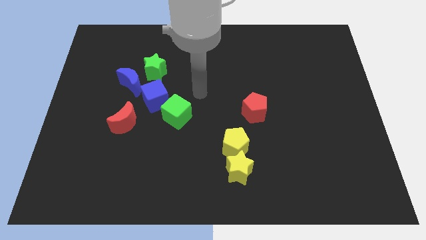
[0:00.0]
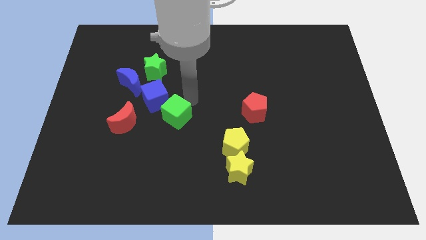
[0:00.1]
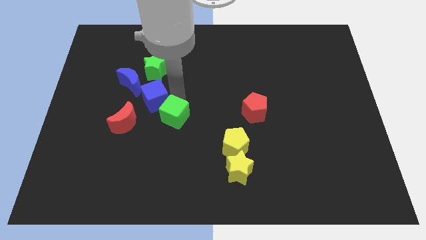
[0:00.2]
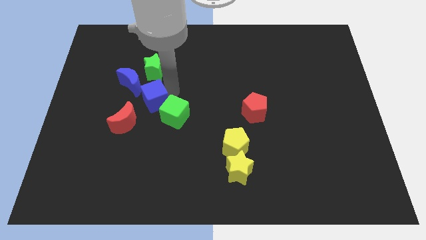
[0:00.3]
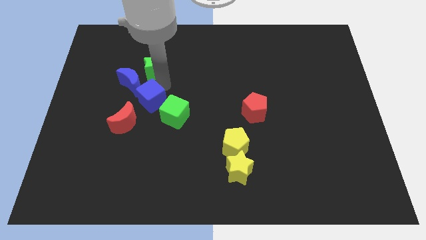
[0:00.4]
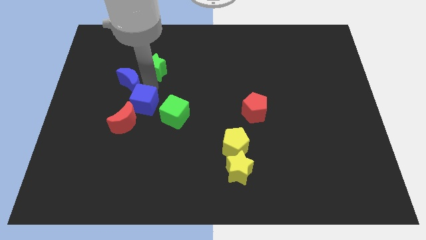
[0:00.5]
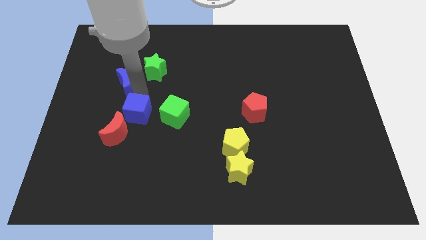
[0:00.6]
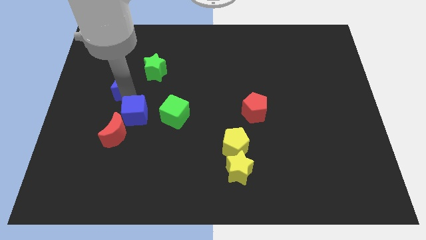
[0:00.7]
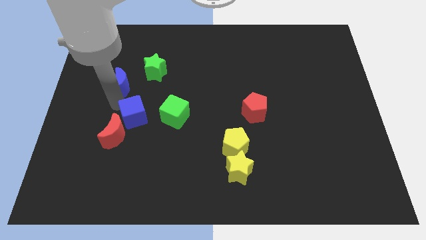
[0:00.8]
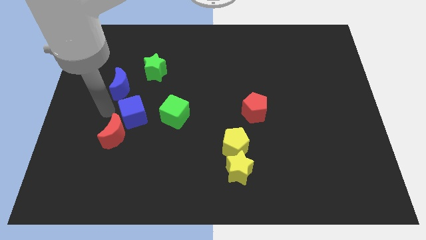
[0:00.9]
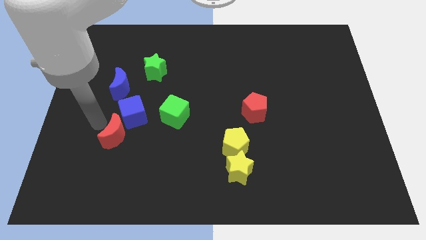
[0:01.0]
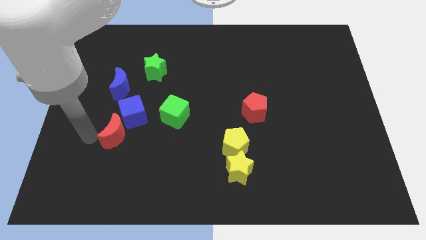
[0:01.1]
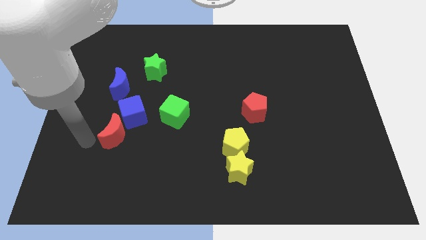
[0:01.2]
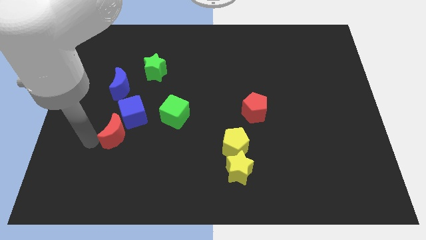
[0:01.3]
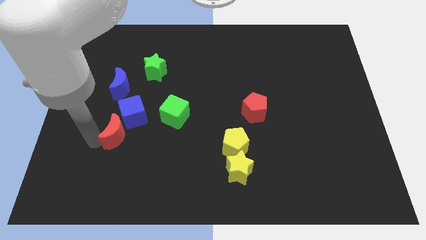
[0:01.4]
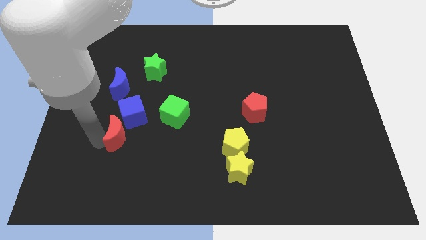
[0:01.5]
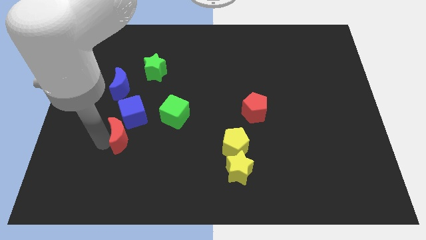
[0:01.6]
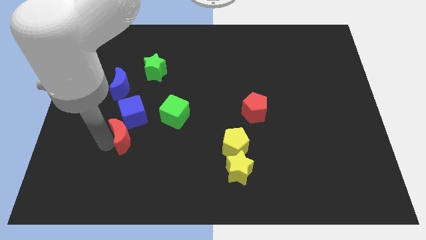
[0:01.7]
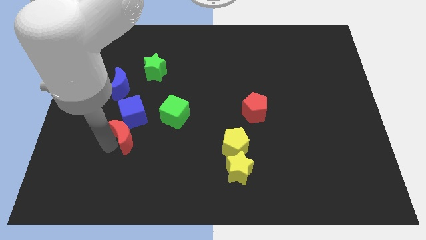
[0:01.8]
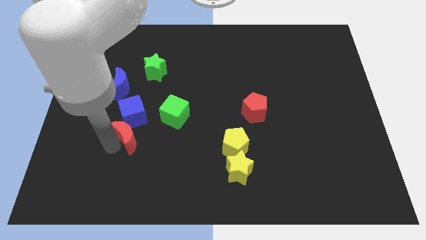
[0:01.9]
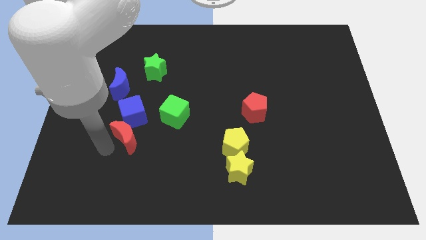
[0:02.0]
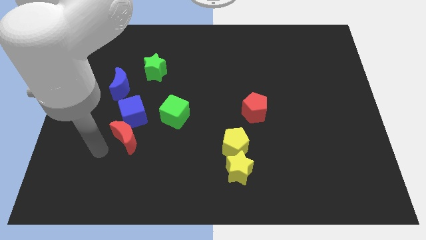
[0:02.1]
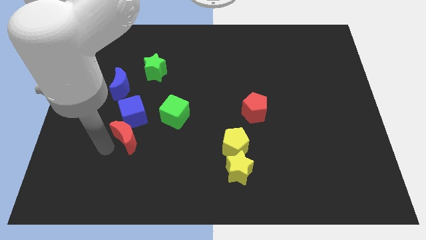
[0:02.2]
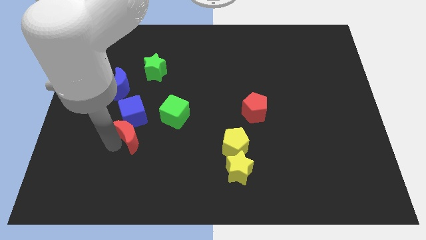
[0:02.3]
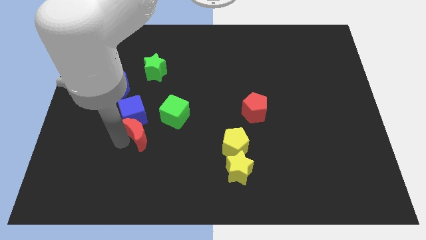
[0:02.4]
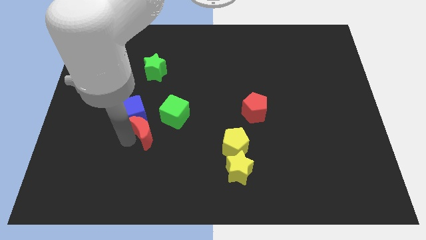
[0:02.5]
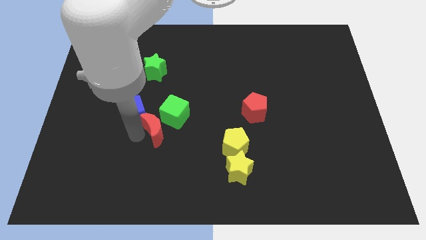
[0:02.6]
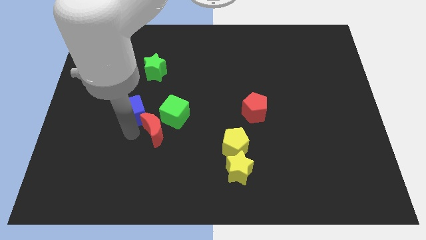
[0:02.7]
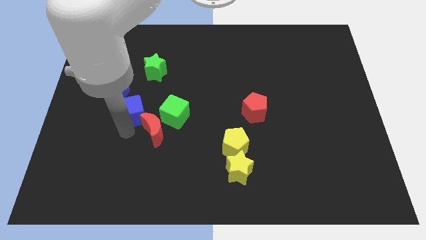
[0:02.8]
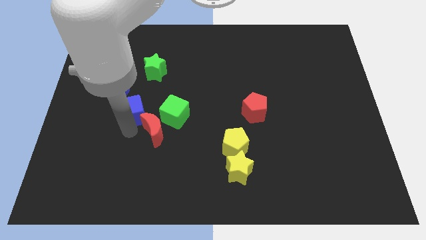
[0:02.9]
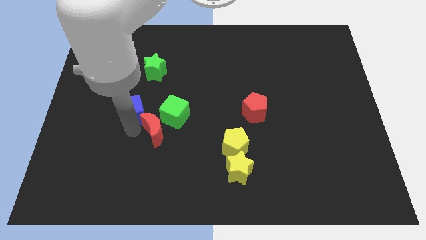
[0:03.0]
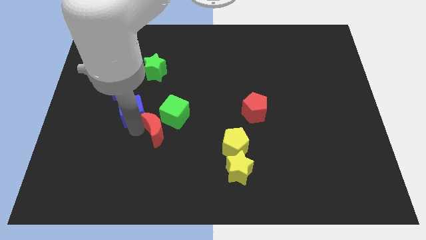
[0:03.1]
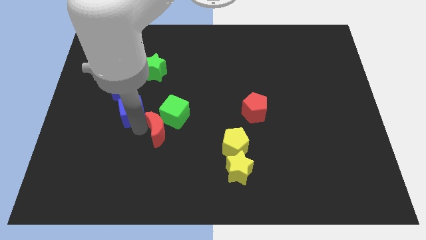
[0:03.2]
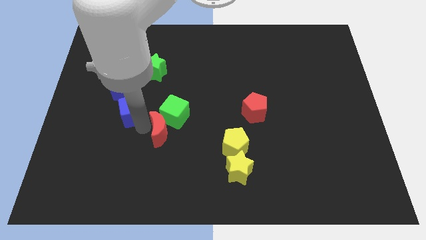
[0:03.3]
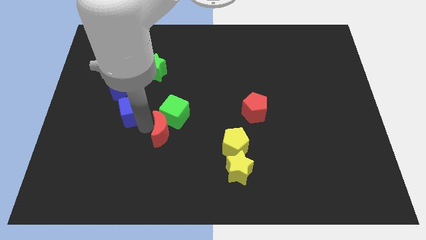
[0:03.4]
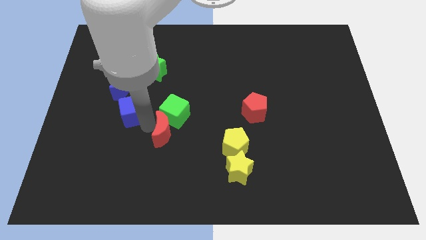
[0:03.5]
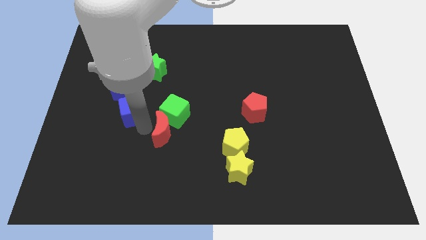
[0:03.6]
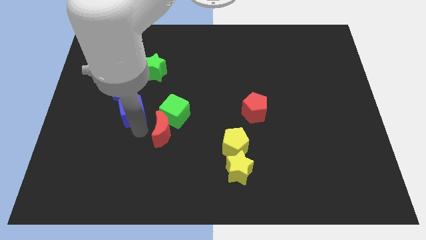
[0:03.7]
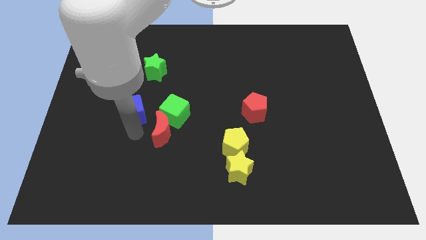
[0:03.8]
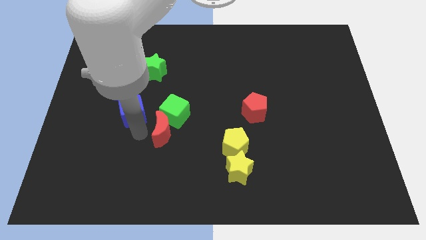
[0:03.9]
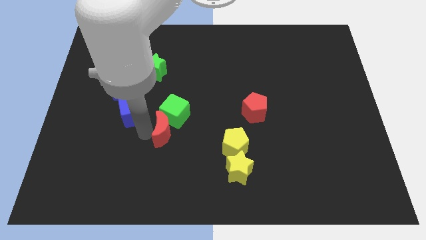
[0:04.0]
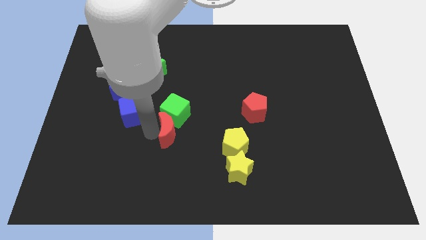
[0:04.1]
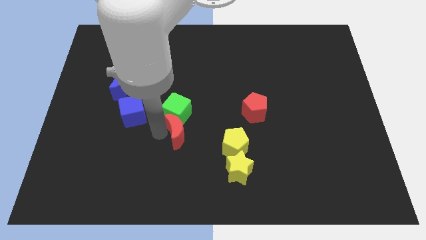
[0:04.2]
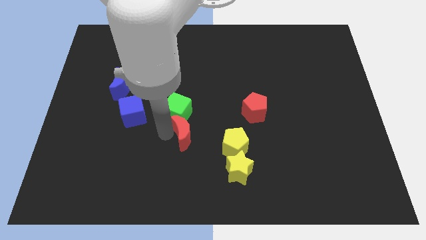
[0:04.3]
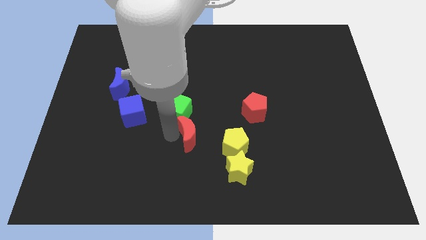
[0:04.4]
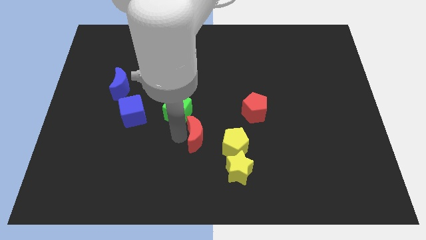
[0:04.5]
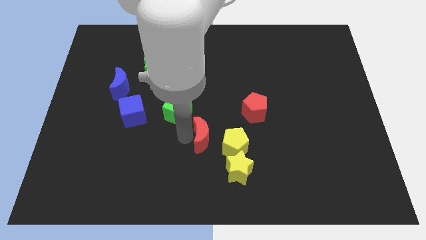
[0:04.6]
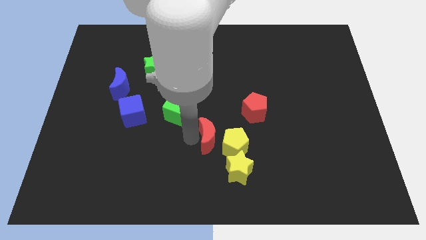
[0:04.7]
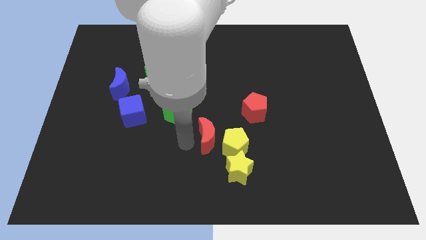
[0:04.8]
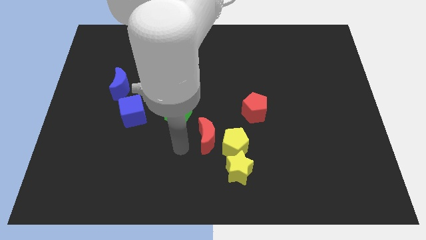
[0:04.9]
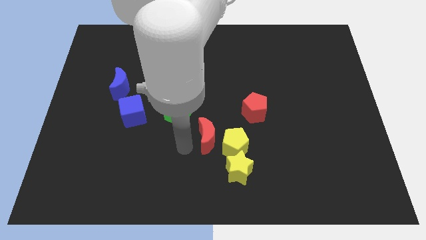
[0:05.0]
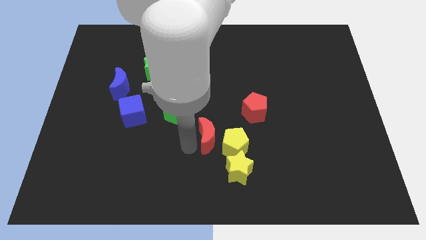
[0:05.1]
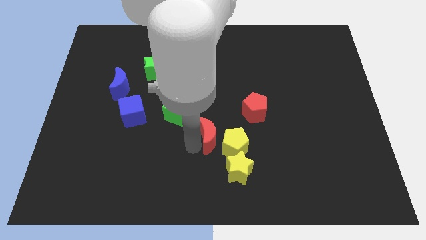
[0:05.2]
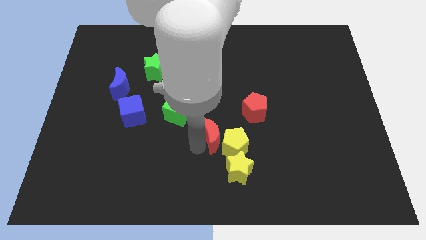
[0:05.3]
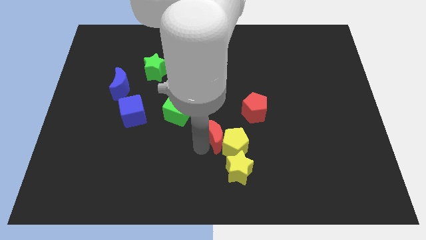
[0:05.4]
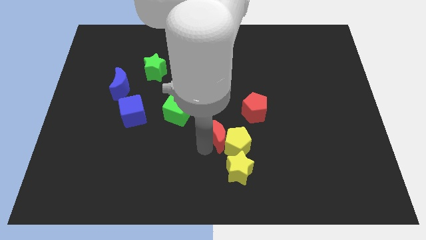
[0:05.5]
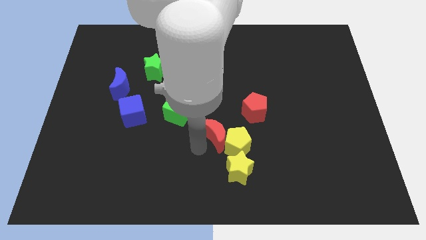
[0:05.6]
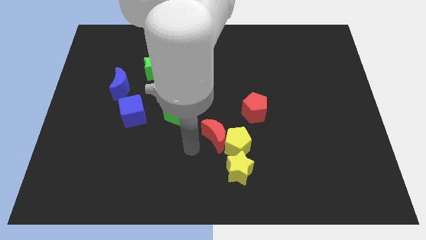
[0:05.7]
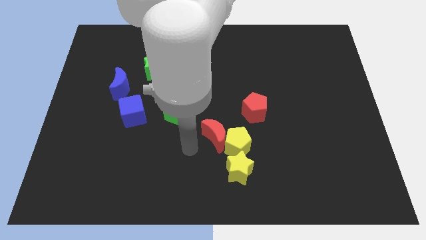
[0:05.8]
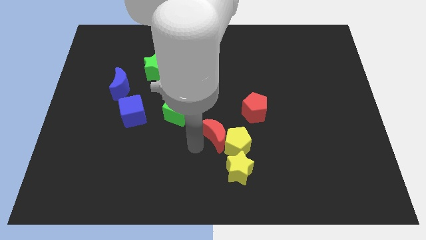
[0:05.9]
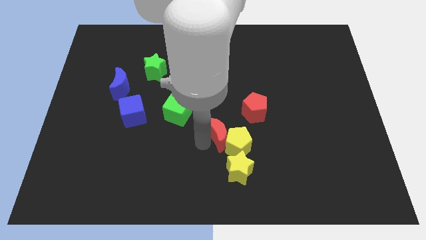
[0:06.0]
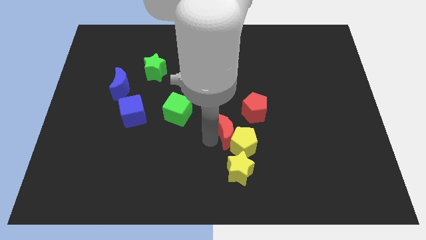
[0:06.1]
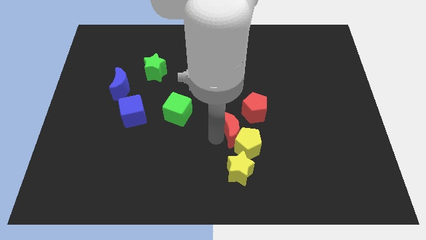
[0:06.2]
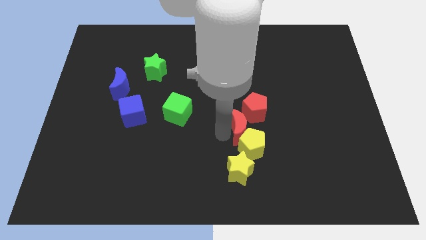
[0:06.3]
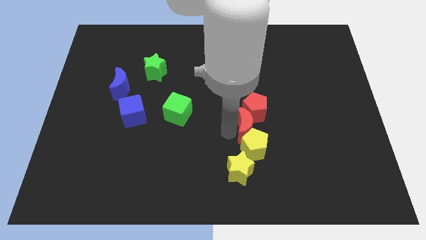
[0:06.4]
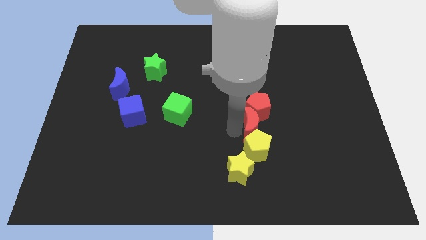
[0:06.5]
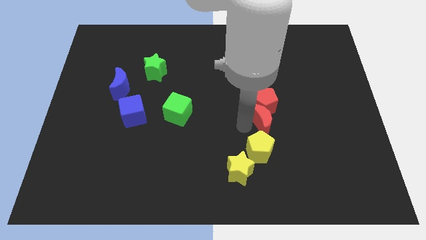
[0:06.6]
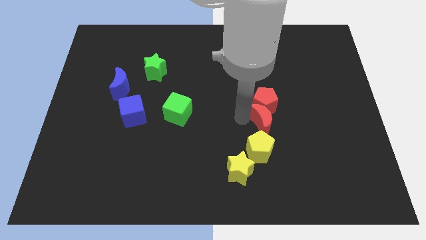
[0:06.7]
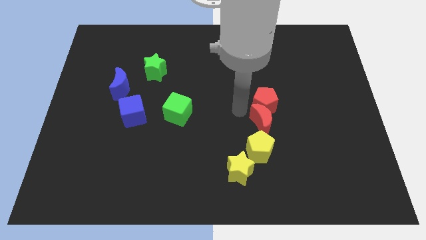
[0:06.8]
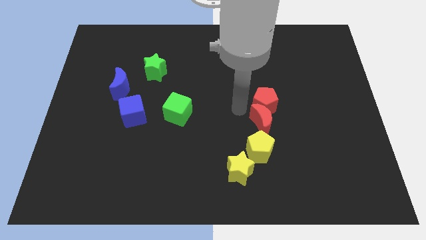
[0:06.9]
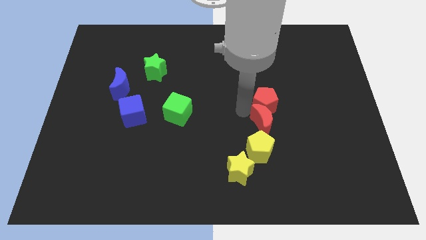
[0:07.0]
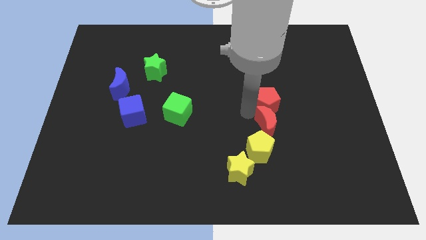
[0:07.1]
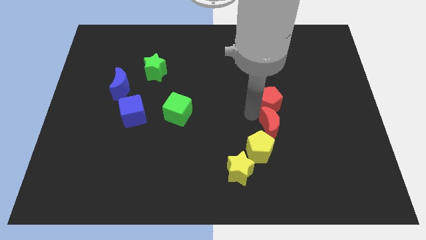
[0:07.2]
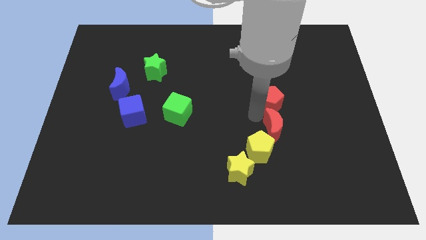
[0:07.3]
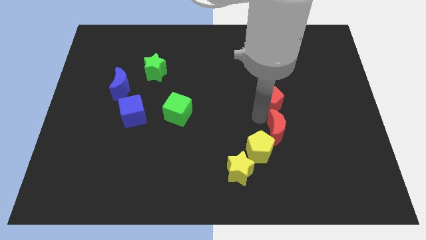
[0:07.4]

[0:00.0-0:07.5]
slide the red moon just right of the yellow pentagon
